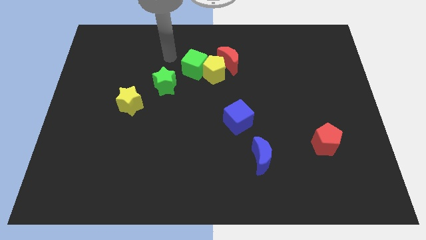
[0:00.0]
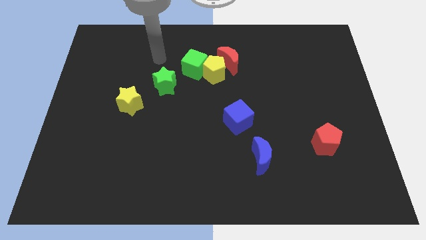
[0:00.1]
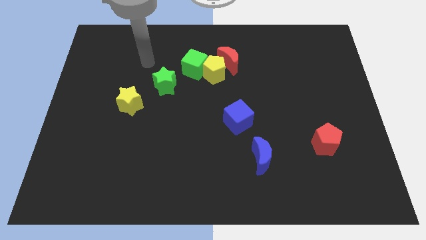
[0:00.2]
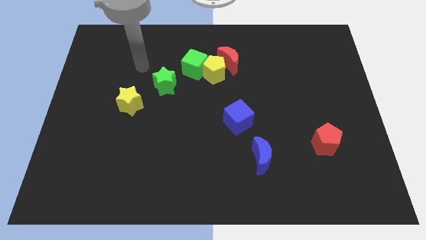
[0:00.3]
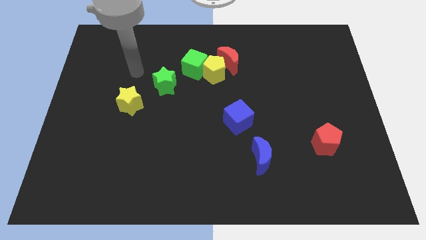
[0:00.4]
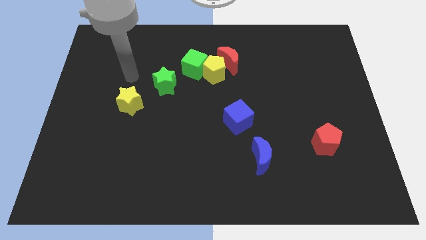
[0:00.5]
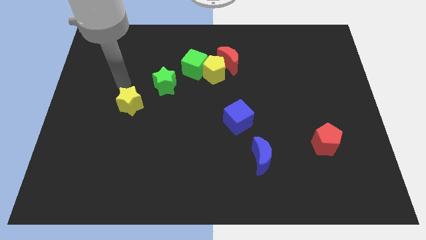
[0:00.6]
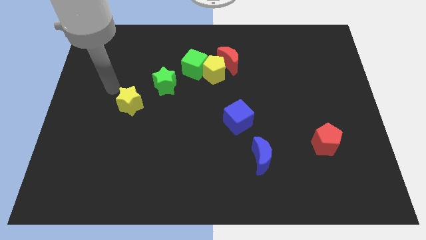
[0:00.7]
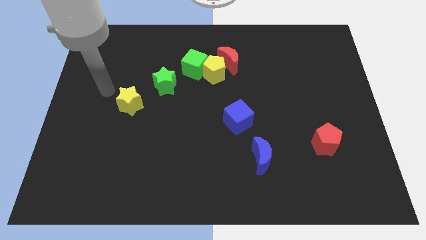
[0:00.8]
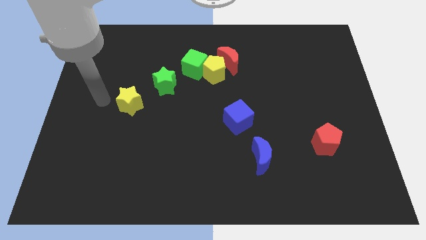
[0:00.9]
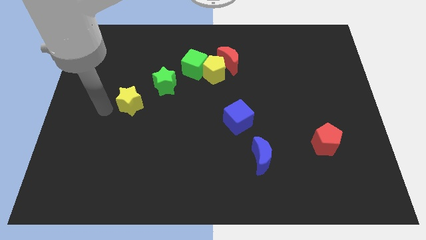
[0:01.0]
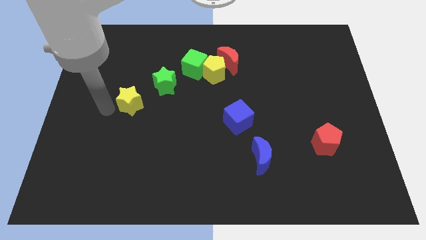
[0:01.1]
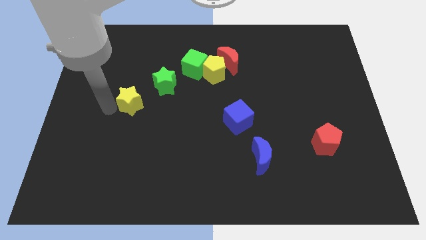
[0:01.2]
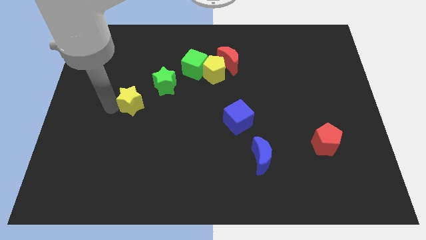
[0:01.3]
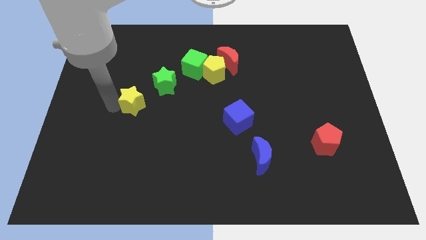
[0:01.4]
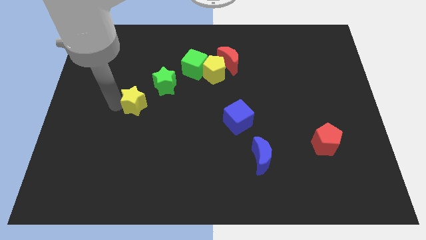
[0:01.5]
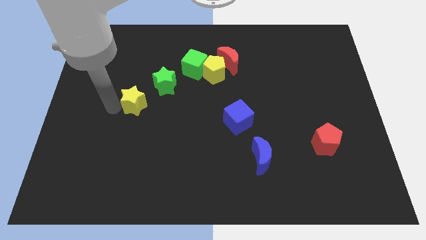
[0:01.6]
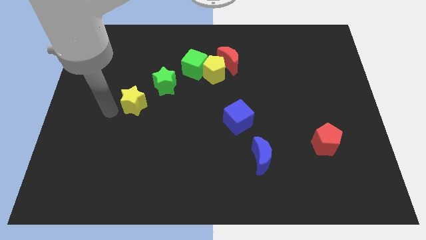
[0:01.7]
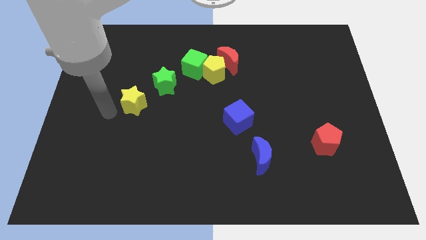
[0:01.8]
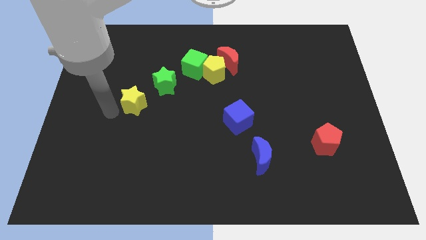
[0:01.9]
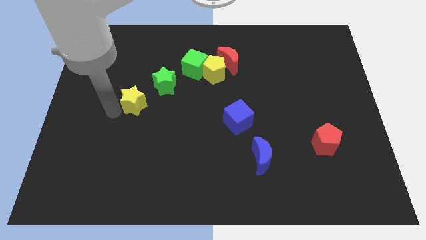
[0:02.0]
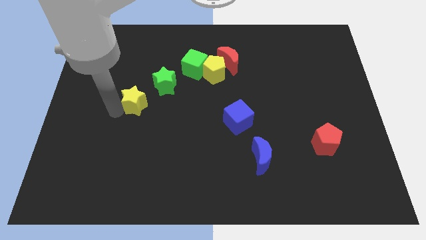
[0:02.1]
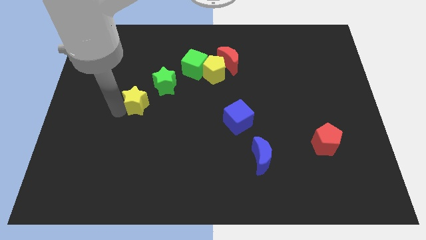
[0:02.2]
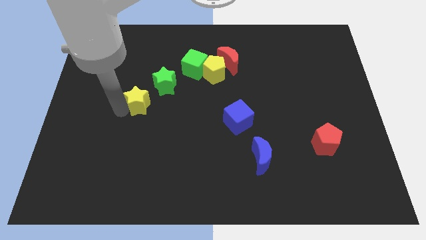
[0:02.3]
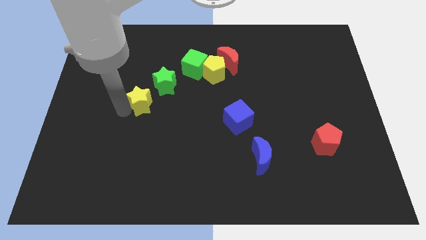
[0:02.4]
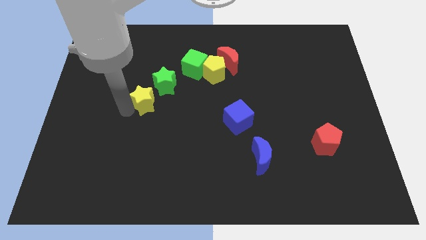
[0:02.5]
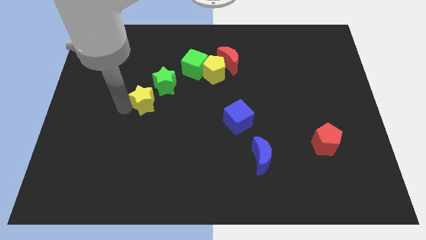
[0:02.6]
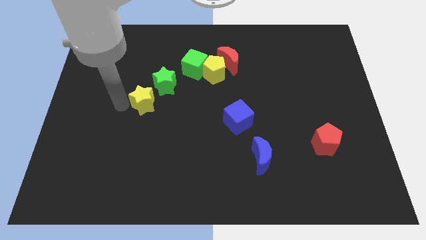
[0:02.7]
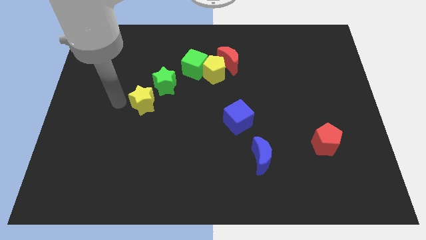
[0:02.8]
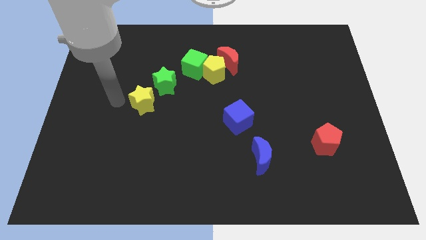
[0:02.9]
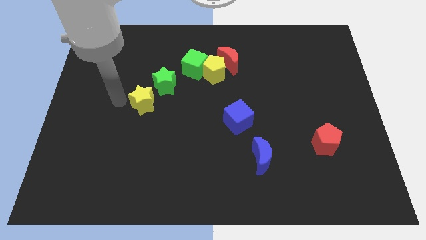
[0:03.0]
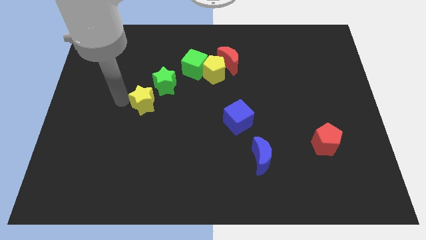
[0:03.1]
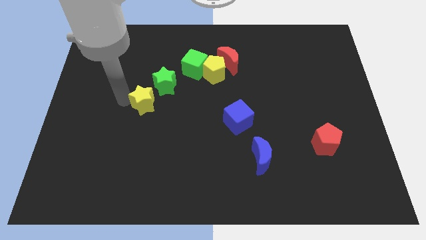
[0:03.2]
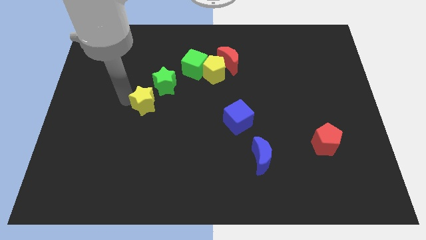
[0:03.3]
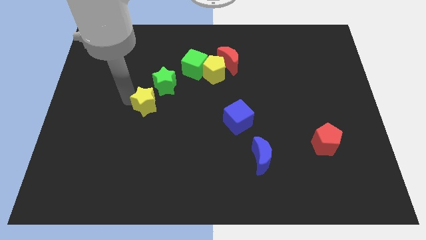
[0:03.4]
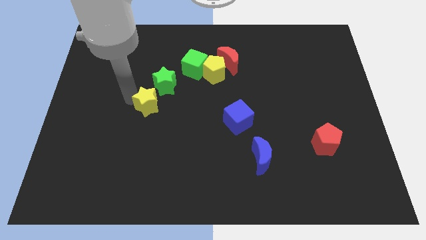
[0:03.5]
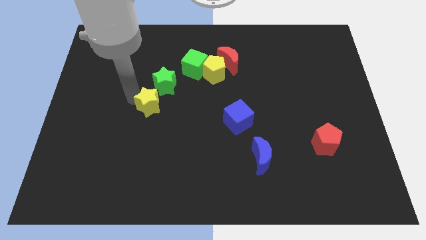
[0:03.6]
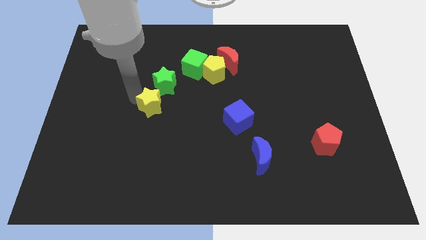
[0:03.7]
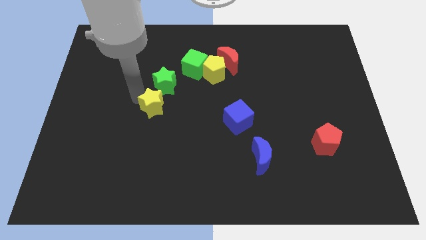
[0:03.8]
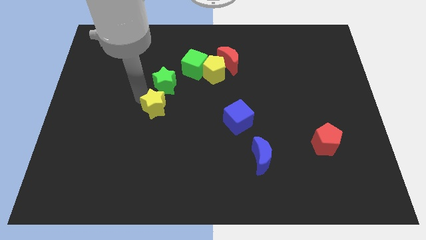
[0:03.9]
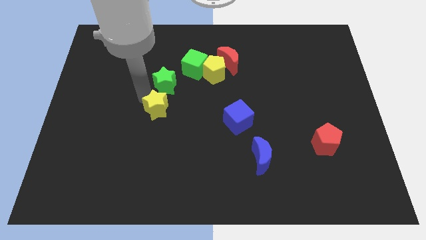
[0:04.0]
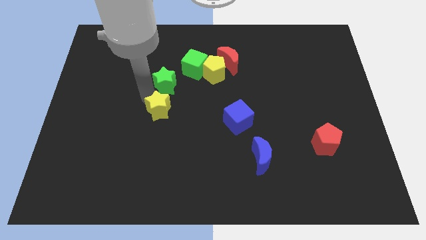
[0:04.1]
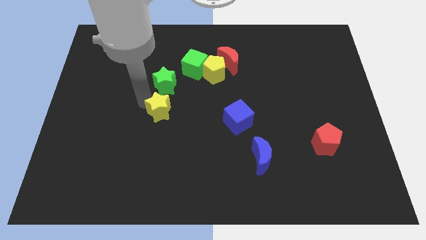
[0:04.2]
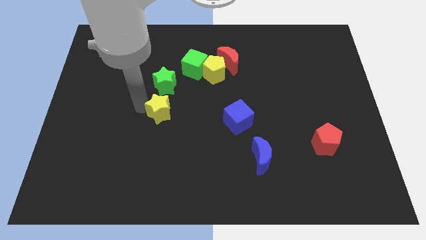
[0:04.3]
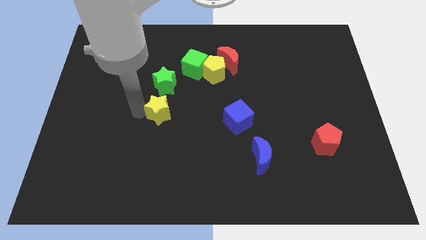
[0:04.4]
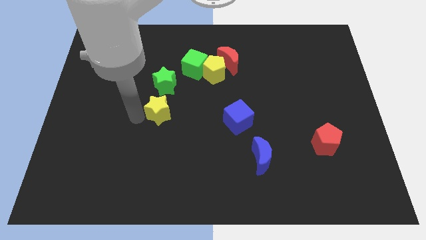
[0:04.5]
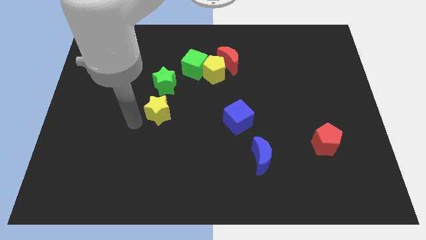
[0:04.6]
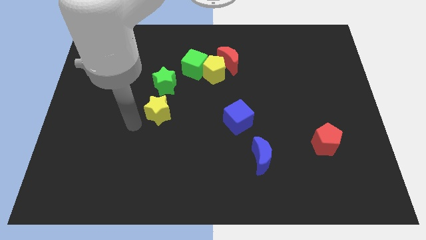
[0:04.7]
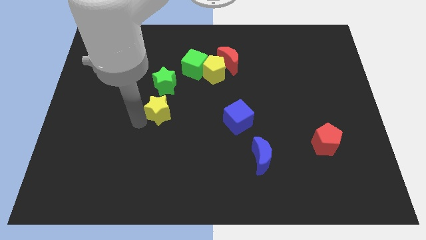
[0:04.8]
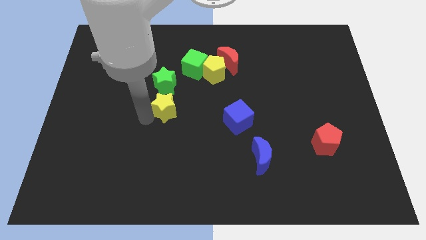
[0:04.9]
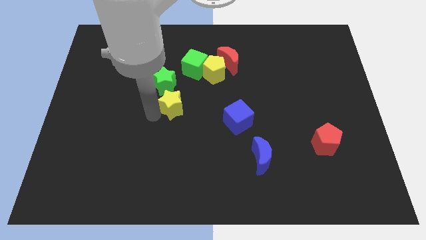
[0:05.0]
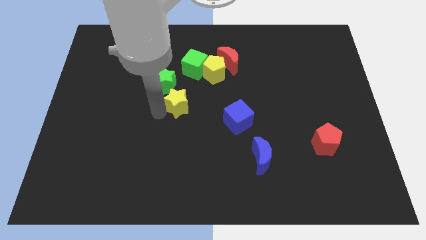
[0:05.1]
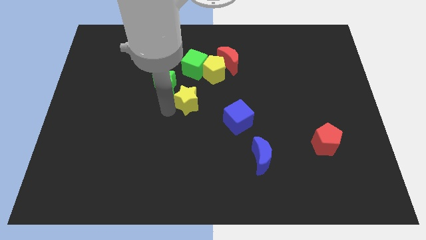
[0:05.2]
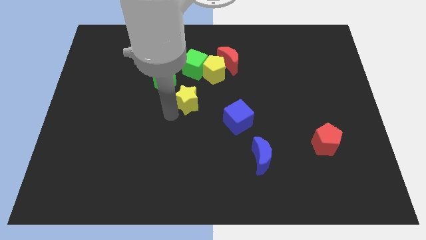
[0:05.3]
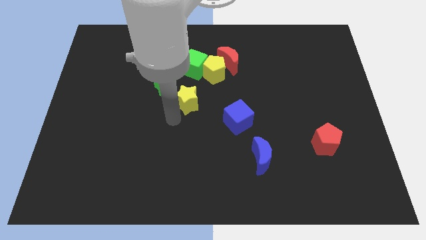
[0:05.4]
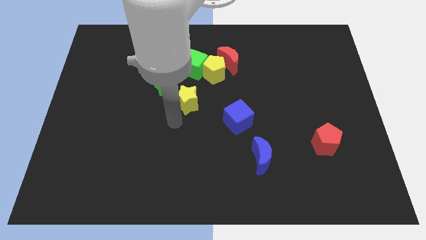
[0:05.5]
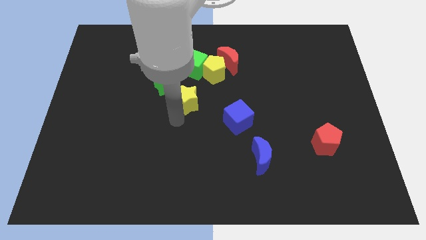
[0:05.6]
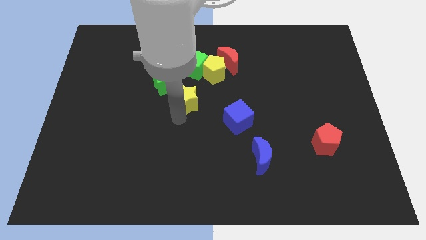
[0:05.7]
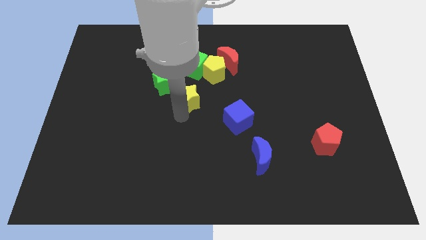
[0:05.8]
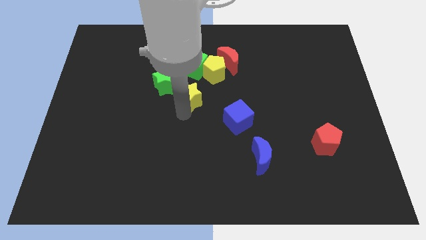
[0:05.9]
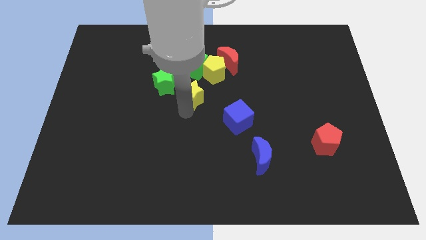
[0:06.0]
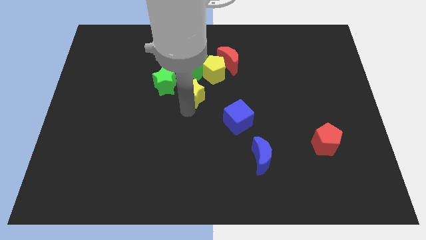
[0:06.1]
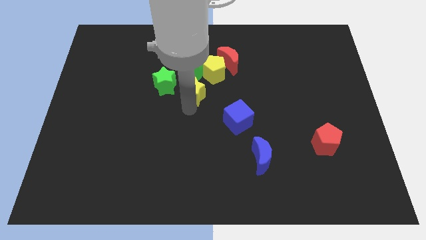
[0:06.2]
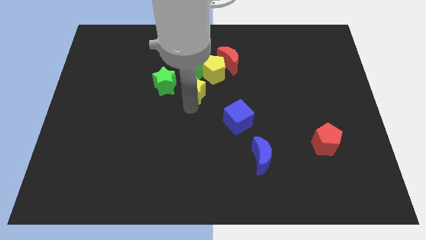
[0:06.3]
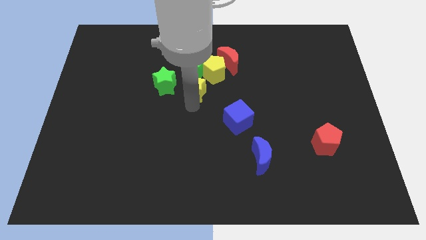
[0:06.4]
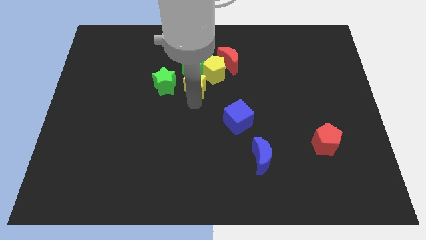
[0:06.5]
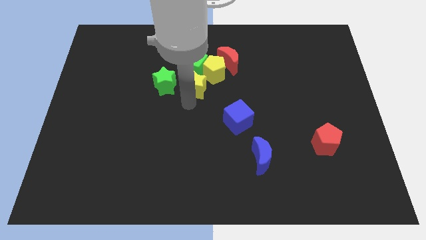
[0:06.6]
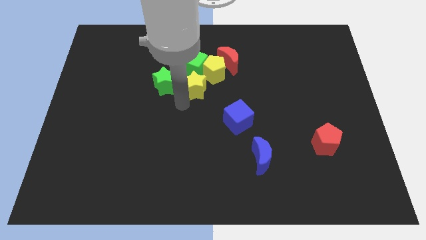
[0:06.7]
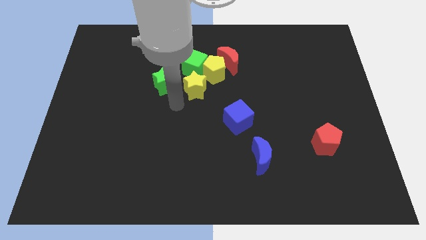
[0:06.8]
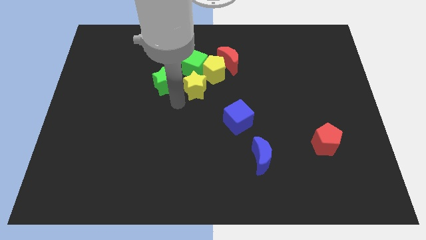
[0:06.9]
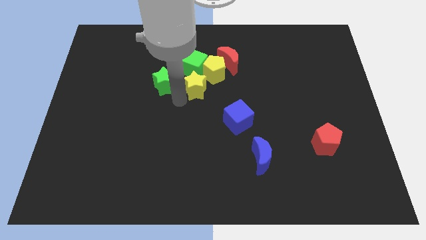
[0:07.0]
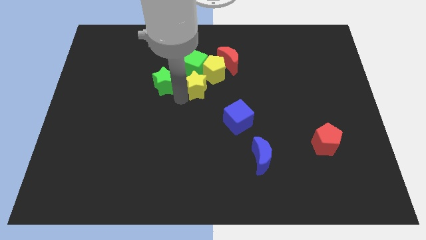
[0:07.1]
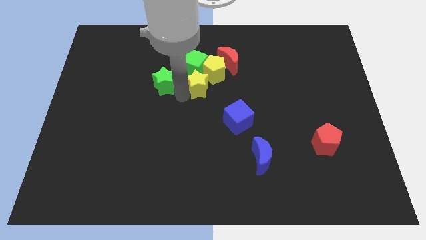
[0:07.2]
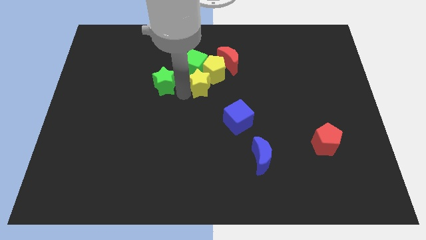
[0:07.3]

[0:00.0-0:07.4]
slide the yellow star to the yellow pentagon

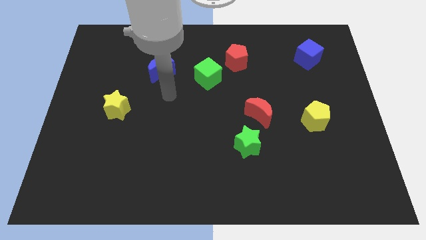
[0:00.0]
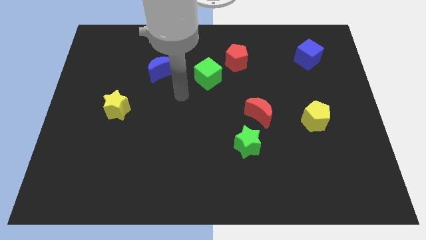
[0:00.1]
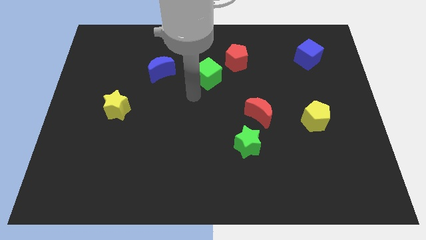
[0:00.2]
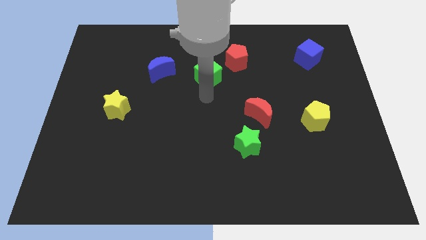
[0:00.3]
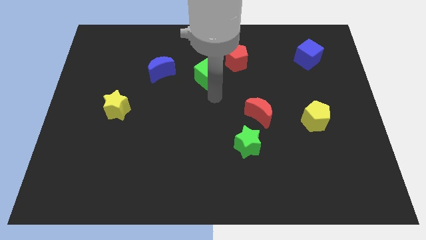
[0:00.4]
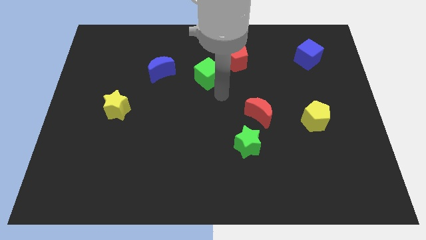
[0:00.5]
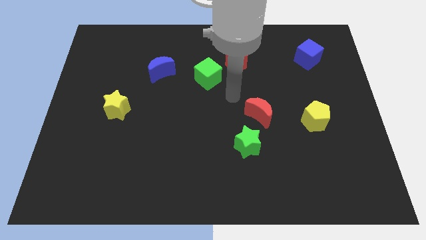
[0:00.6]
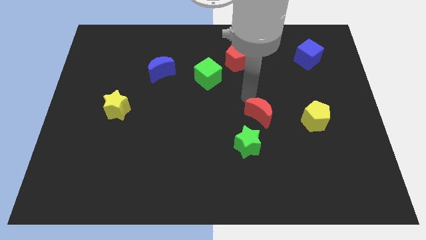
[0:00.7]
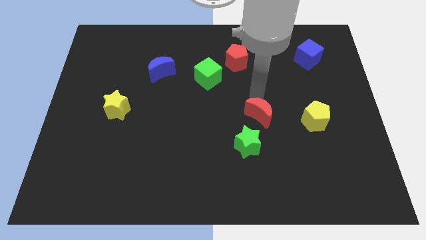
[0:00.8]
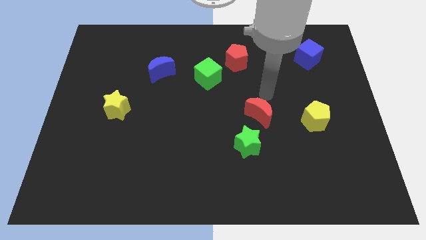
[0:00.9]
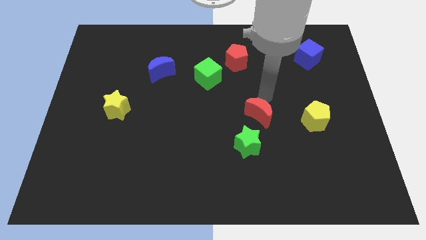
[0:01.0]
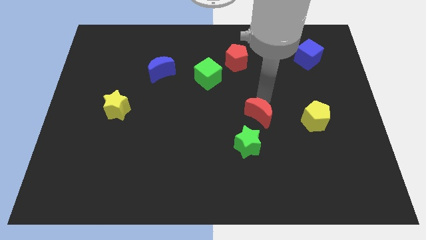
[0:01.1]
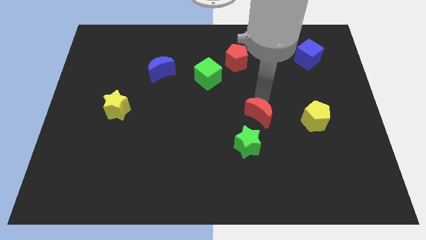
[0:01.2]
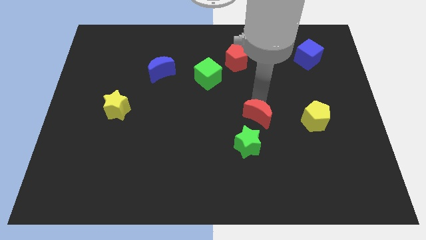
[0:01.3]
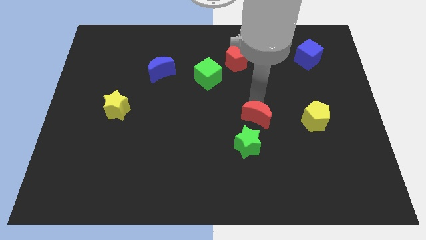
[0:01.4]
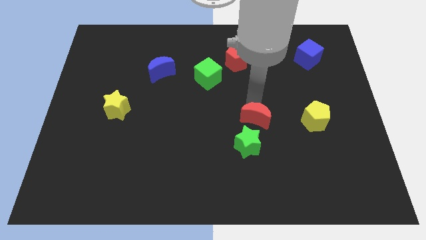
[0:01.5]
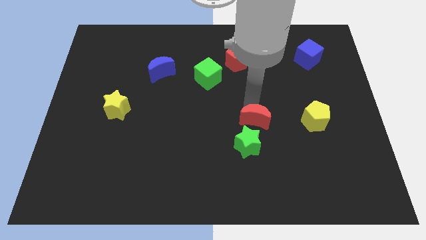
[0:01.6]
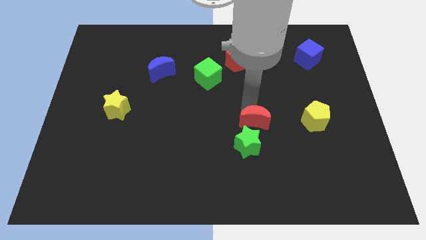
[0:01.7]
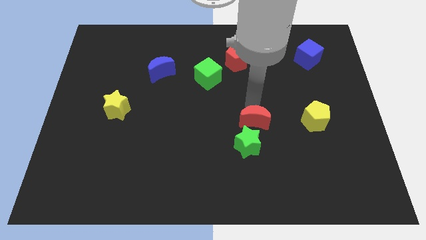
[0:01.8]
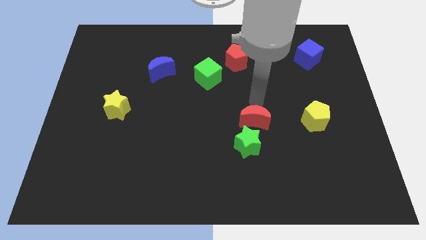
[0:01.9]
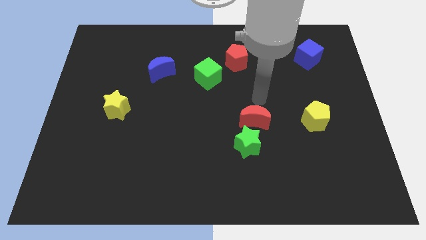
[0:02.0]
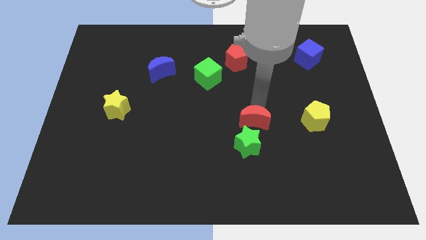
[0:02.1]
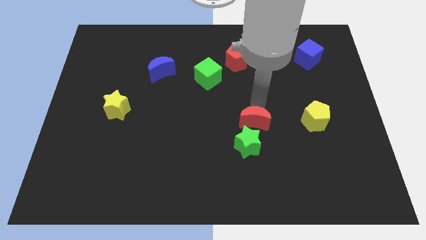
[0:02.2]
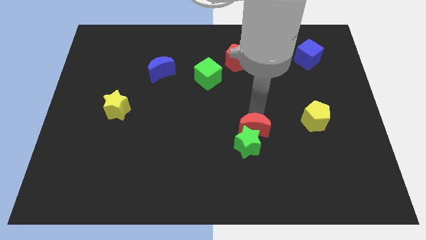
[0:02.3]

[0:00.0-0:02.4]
put the red moon towards the green star
